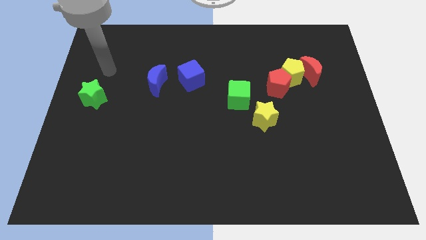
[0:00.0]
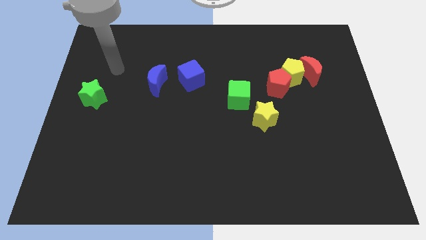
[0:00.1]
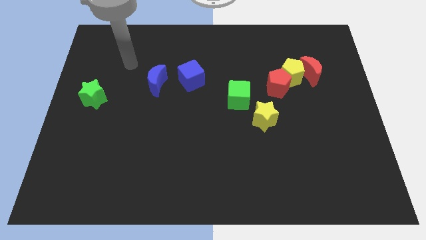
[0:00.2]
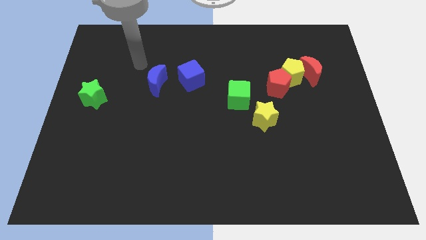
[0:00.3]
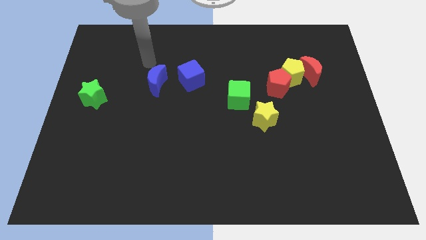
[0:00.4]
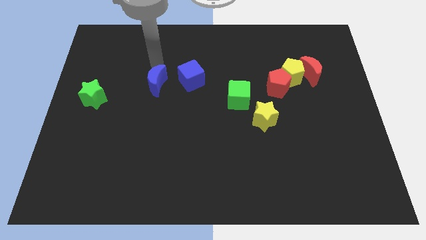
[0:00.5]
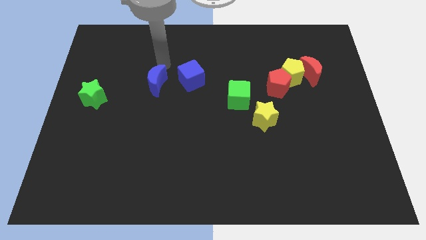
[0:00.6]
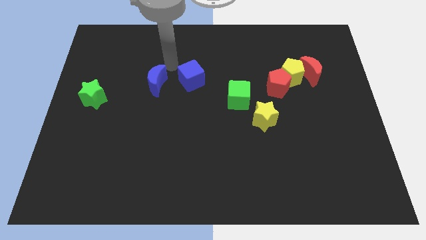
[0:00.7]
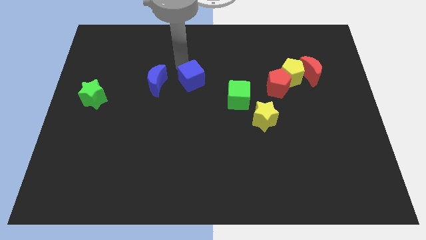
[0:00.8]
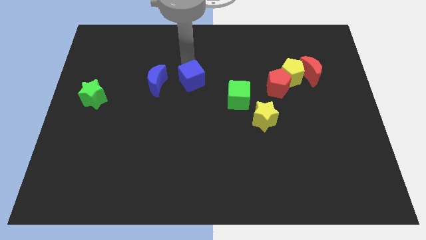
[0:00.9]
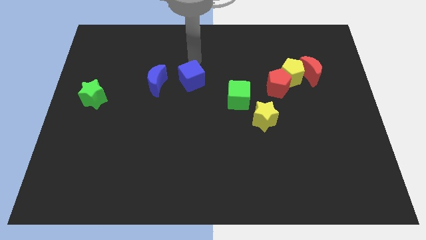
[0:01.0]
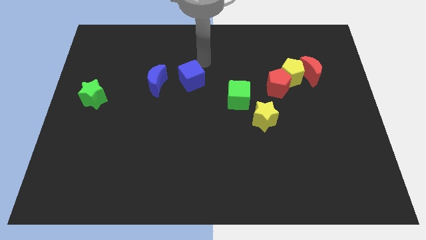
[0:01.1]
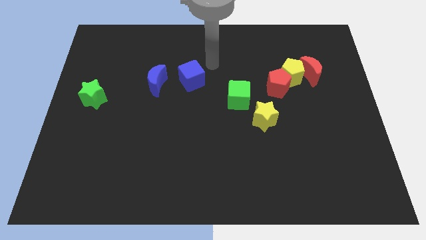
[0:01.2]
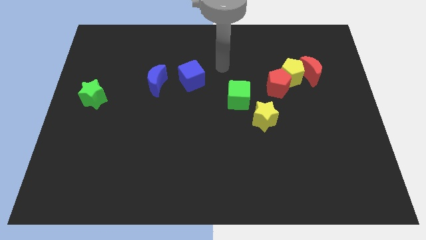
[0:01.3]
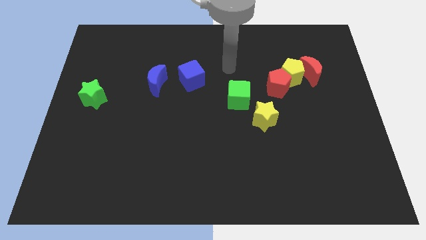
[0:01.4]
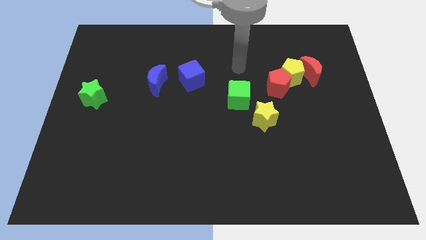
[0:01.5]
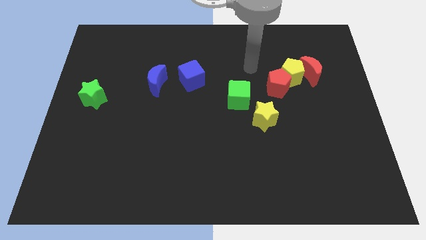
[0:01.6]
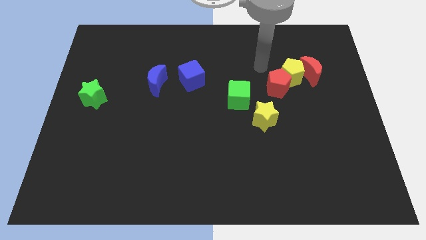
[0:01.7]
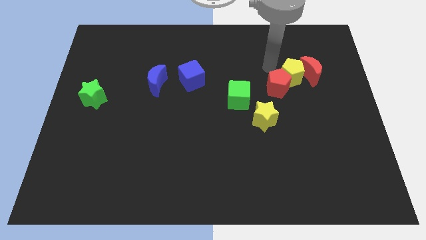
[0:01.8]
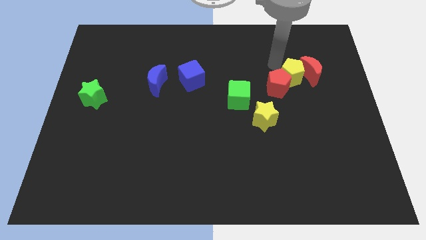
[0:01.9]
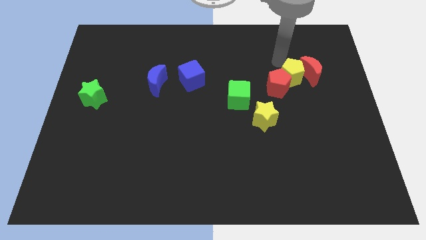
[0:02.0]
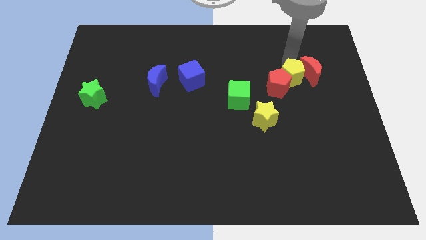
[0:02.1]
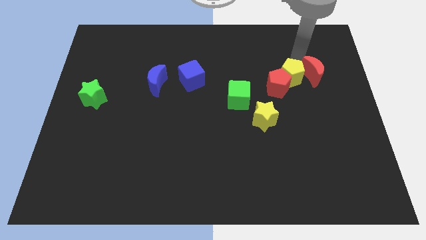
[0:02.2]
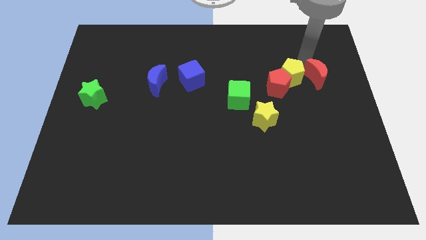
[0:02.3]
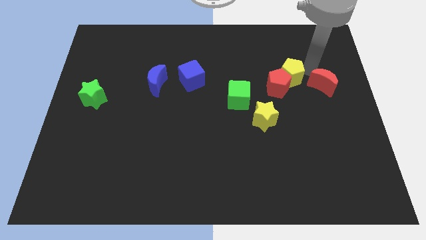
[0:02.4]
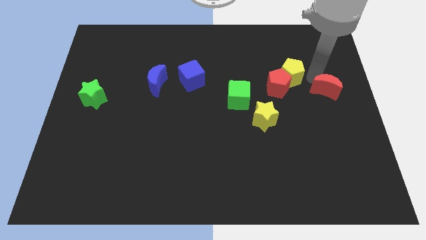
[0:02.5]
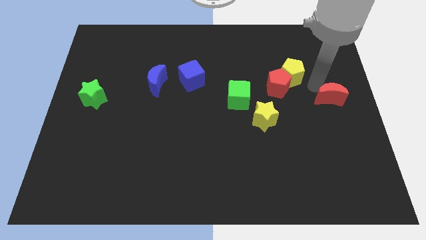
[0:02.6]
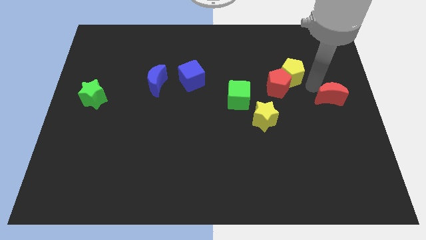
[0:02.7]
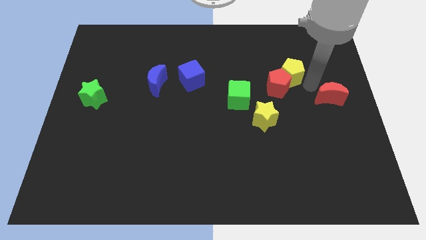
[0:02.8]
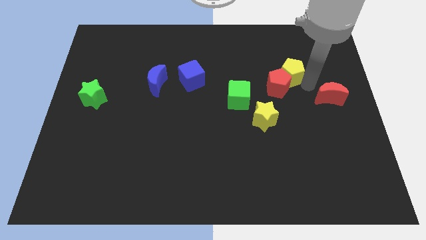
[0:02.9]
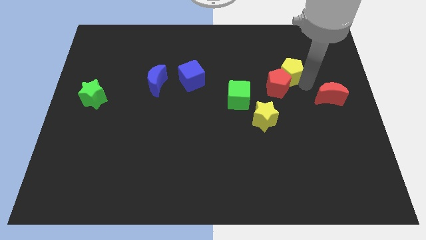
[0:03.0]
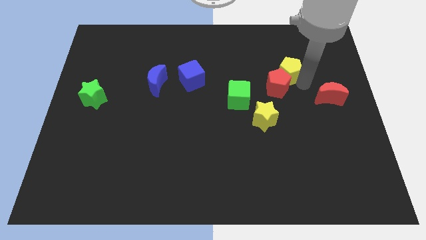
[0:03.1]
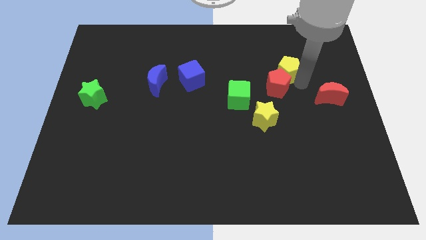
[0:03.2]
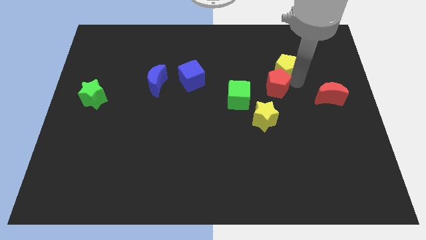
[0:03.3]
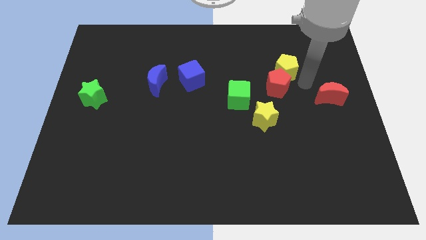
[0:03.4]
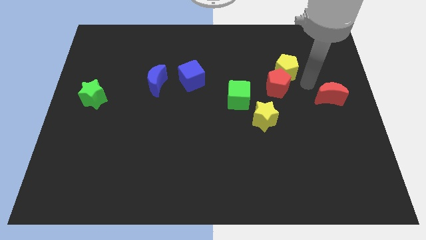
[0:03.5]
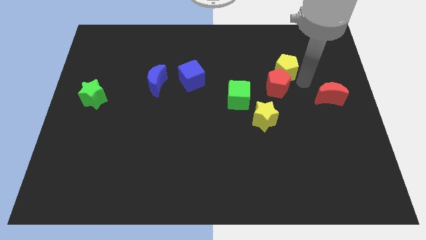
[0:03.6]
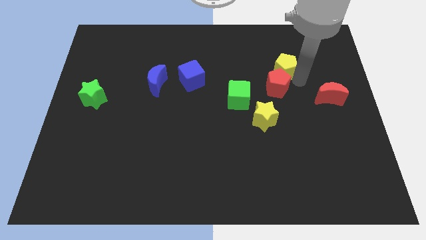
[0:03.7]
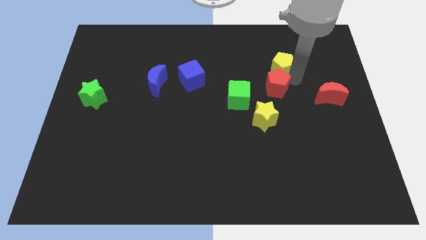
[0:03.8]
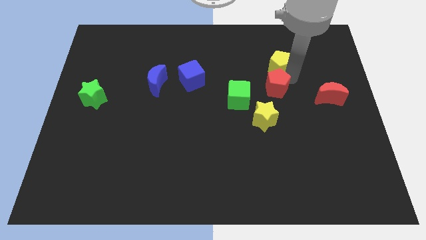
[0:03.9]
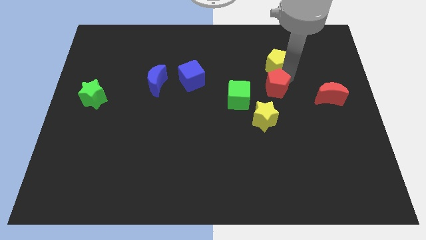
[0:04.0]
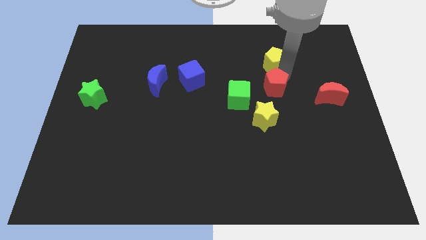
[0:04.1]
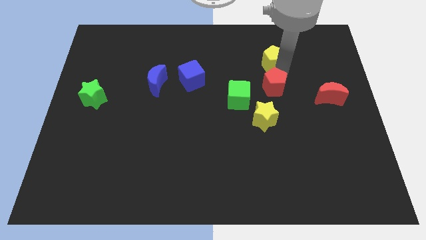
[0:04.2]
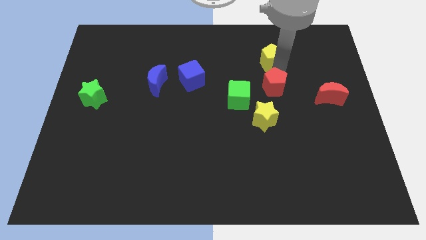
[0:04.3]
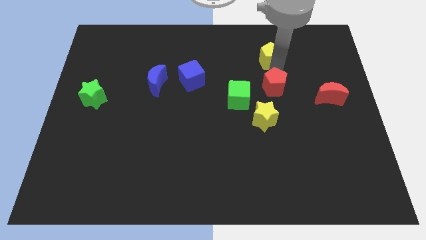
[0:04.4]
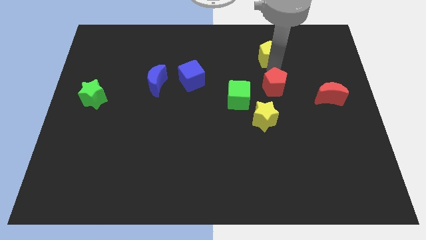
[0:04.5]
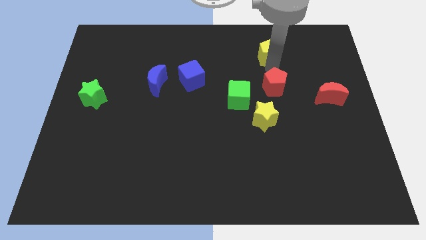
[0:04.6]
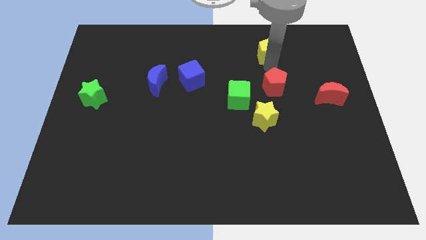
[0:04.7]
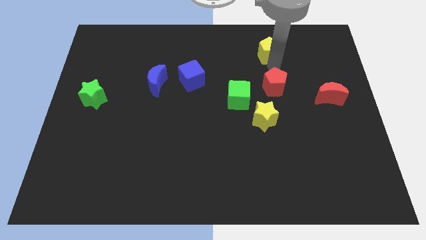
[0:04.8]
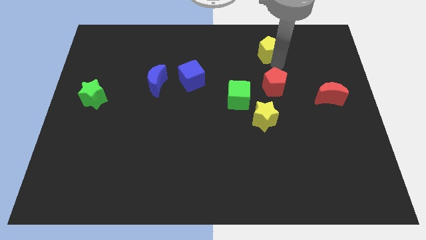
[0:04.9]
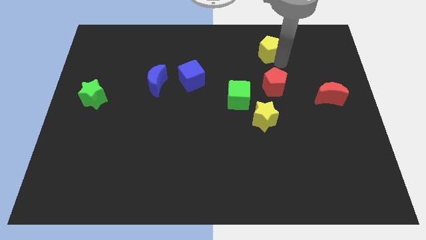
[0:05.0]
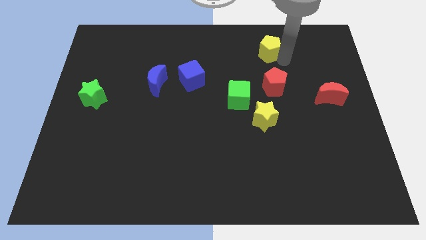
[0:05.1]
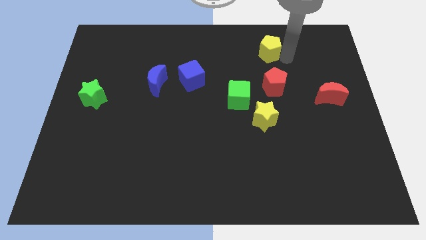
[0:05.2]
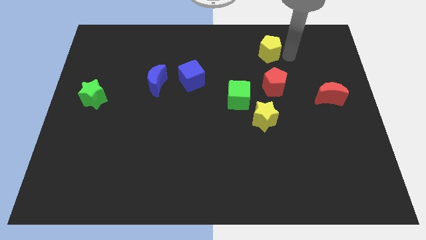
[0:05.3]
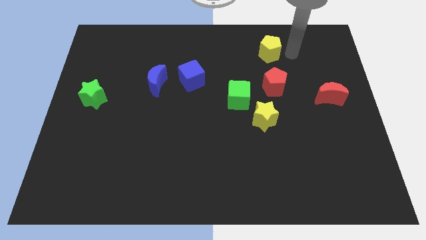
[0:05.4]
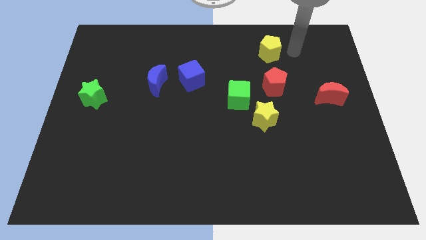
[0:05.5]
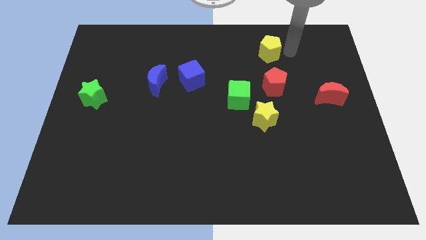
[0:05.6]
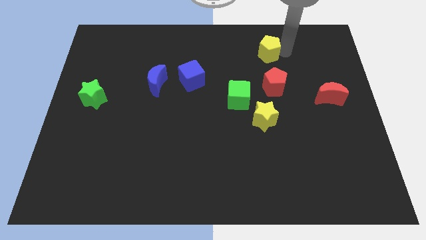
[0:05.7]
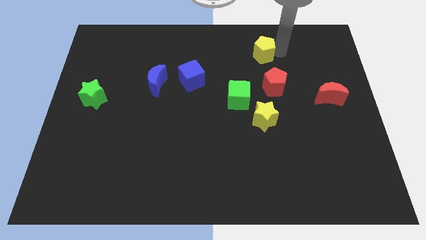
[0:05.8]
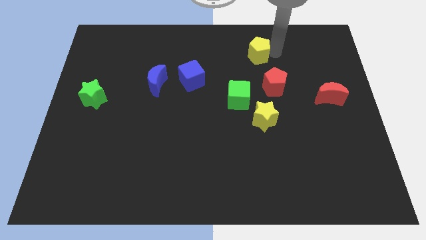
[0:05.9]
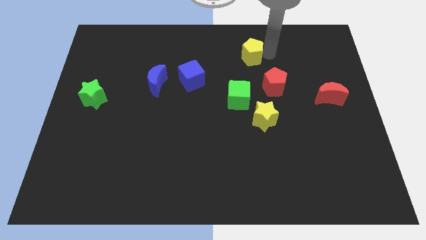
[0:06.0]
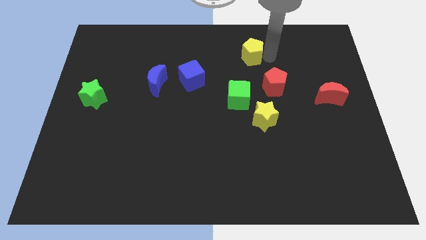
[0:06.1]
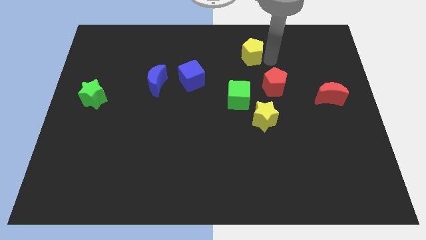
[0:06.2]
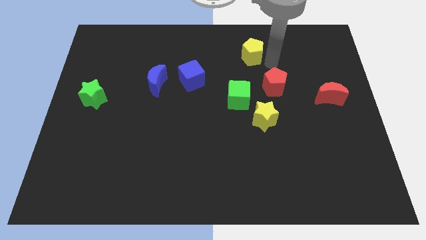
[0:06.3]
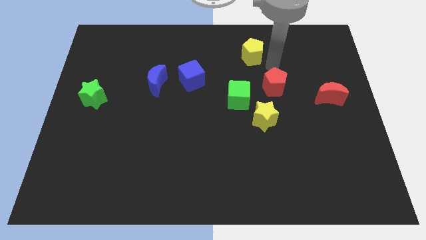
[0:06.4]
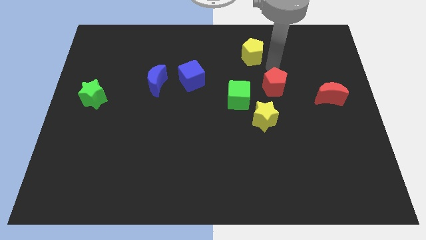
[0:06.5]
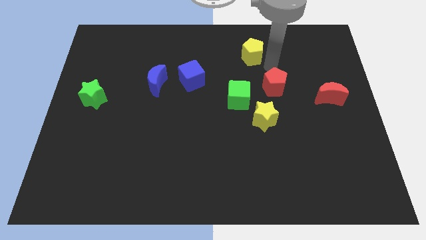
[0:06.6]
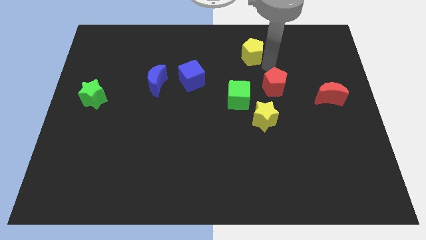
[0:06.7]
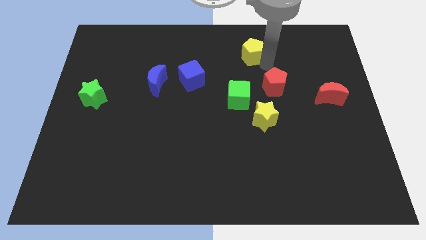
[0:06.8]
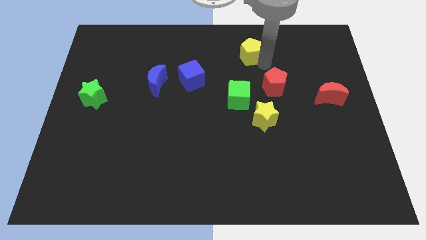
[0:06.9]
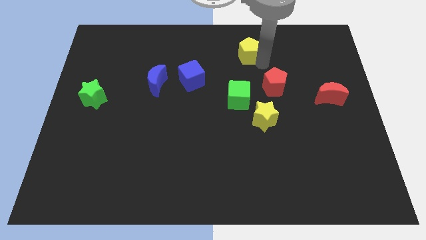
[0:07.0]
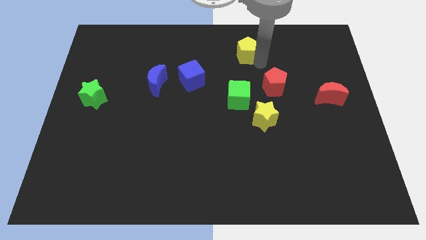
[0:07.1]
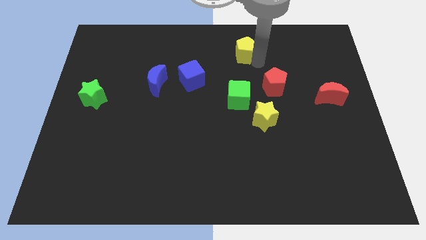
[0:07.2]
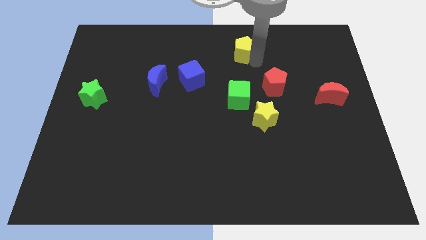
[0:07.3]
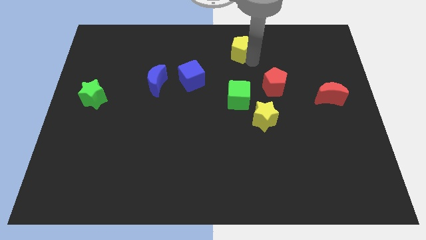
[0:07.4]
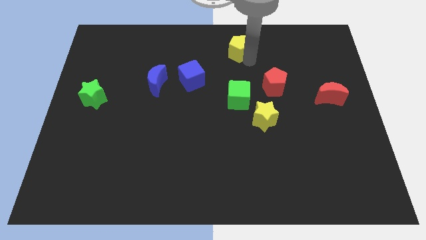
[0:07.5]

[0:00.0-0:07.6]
put the yellow pentagon to the top side
